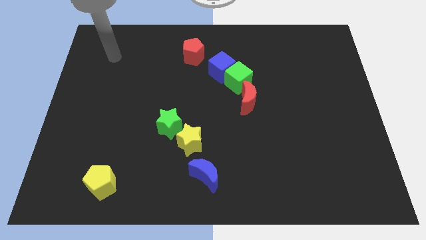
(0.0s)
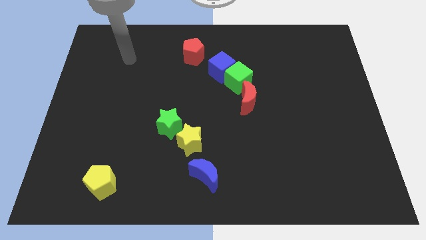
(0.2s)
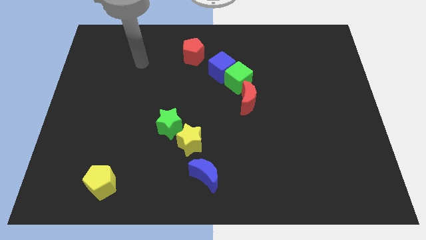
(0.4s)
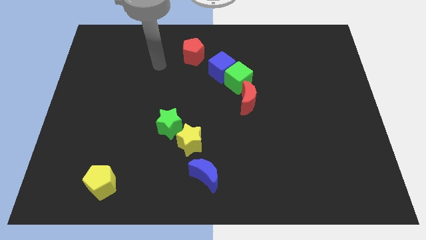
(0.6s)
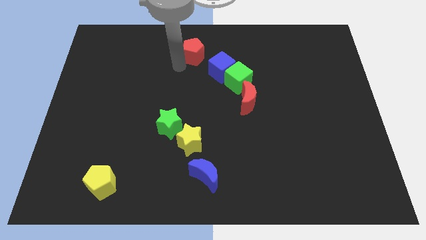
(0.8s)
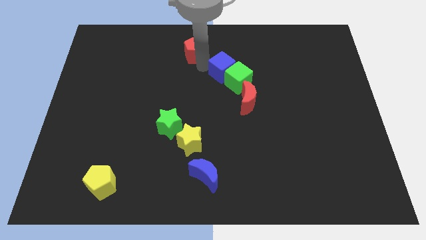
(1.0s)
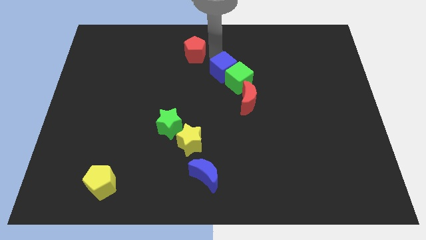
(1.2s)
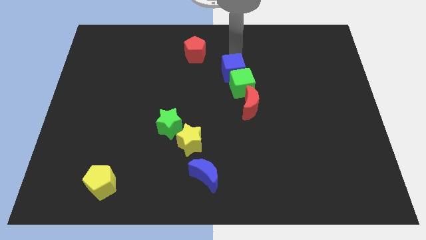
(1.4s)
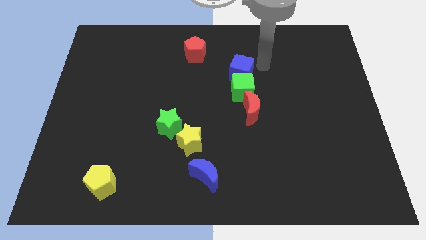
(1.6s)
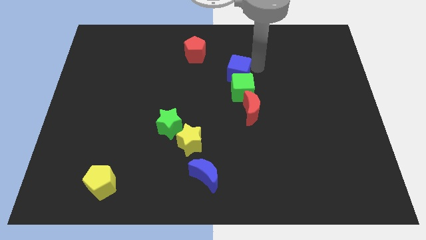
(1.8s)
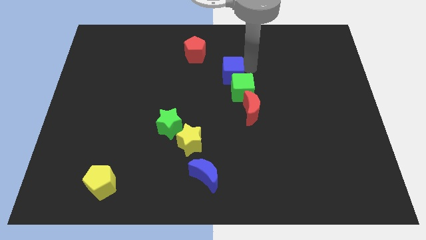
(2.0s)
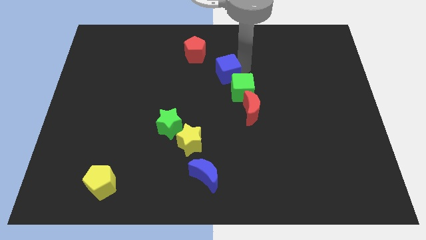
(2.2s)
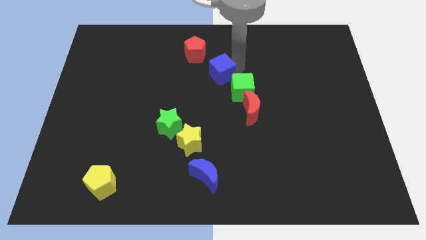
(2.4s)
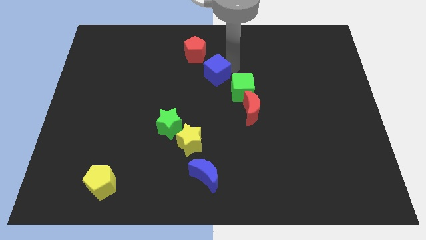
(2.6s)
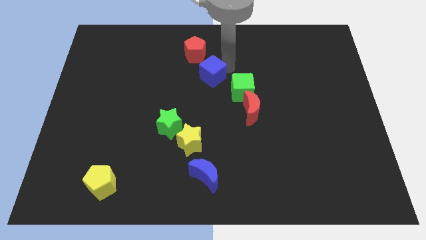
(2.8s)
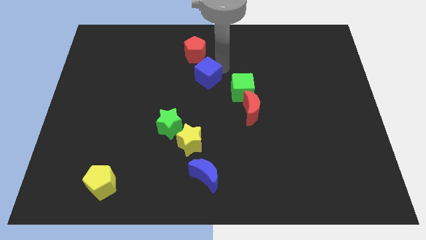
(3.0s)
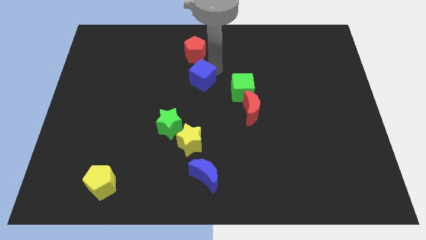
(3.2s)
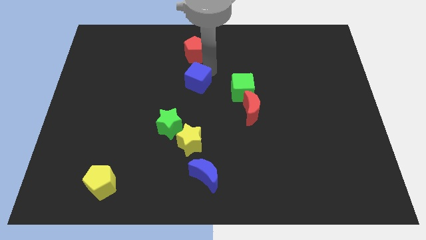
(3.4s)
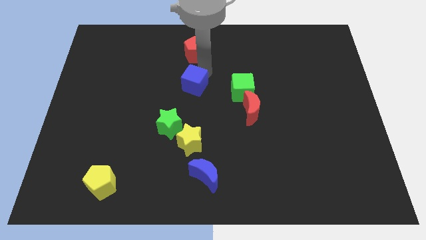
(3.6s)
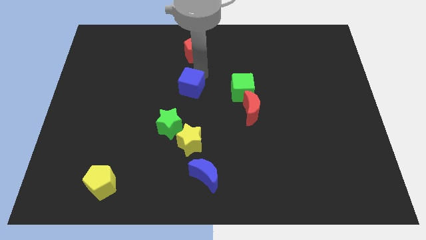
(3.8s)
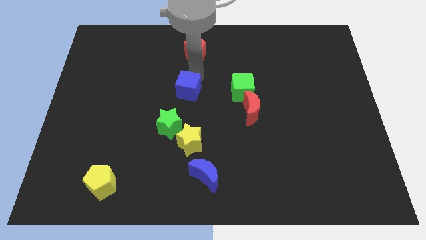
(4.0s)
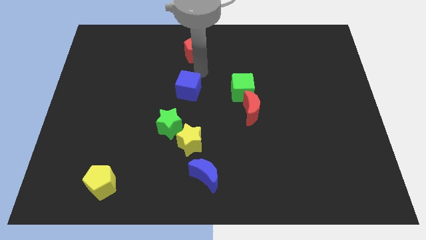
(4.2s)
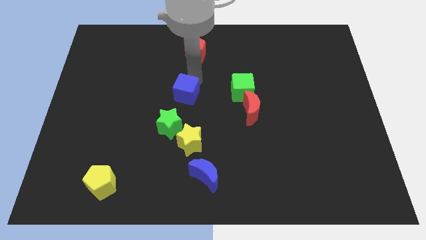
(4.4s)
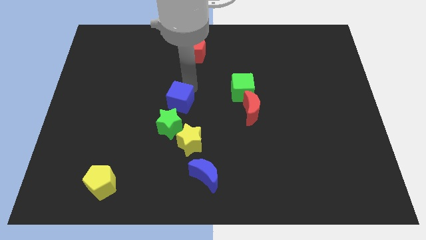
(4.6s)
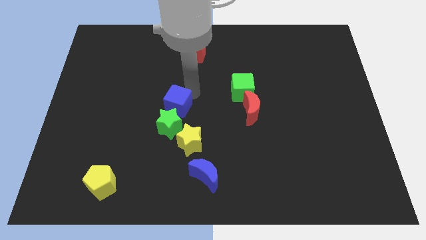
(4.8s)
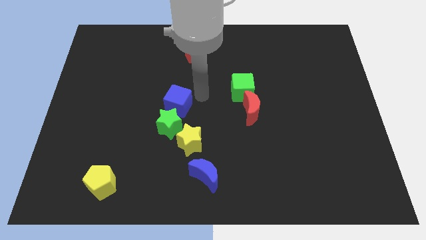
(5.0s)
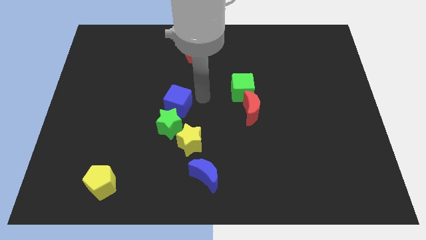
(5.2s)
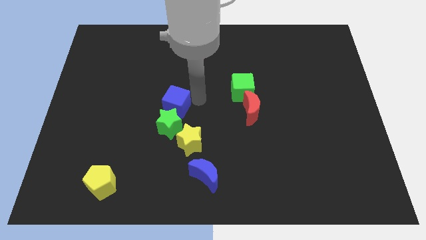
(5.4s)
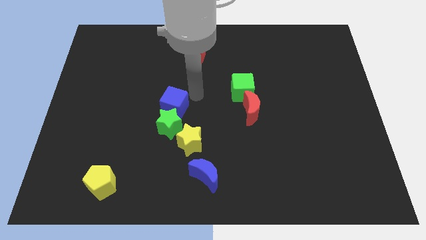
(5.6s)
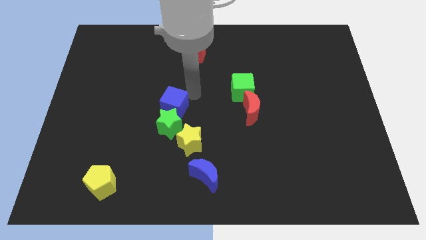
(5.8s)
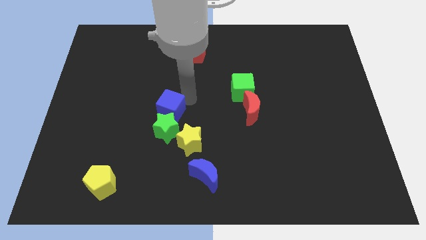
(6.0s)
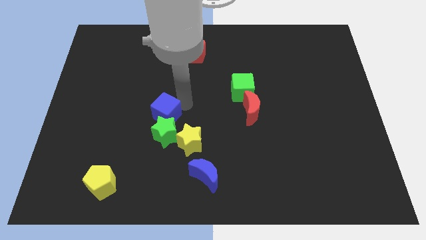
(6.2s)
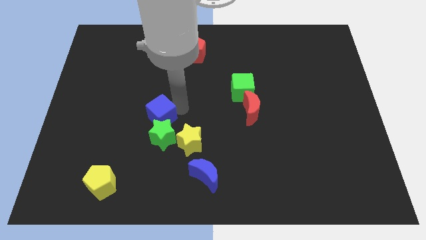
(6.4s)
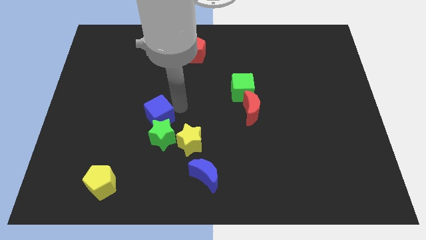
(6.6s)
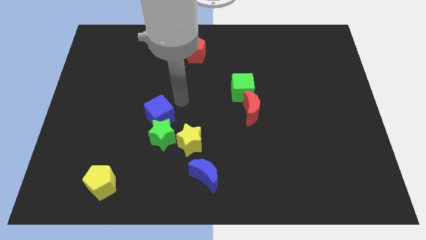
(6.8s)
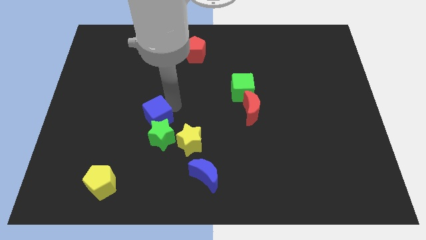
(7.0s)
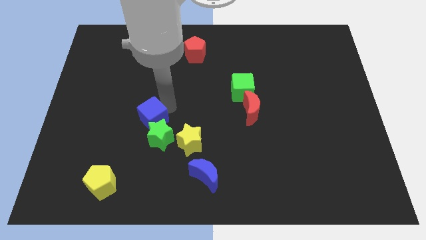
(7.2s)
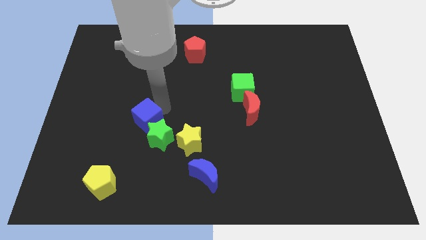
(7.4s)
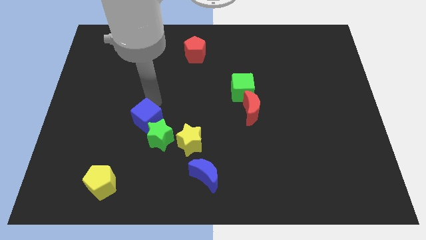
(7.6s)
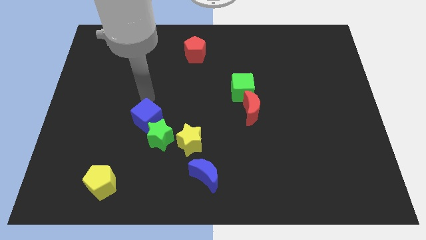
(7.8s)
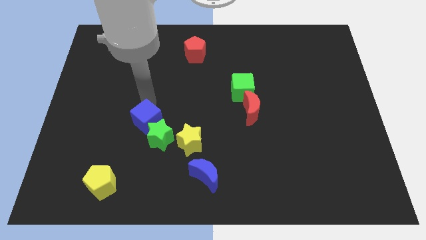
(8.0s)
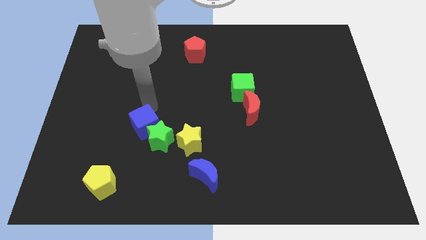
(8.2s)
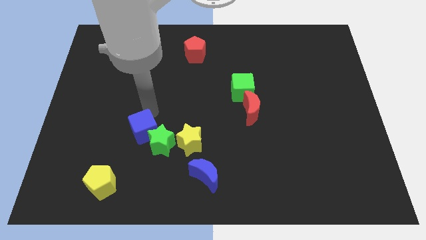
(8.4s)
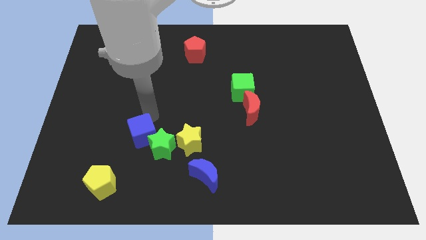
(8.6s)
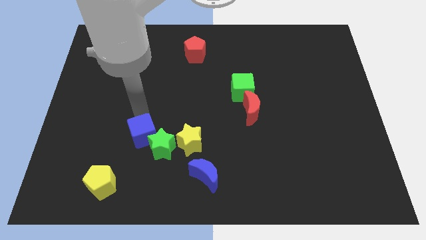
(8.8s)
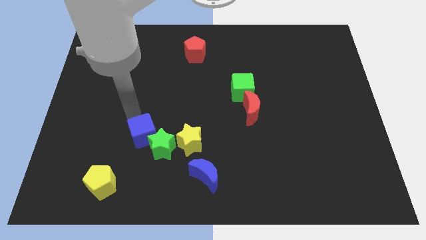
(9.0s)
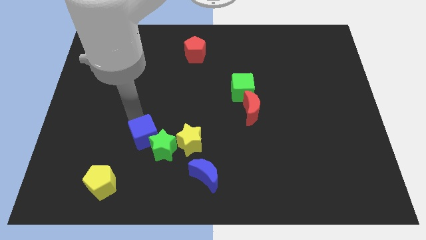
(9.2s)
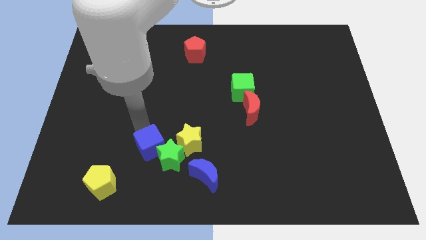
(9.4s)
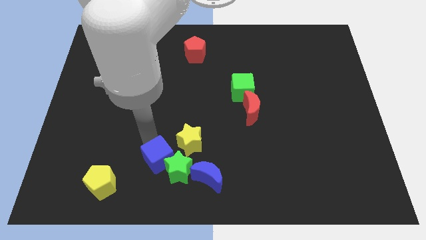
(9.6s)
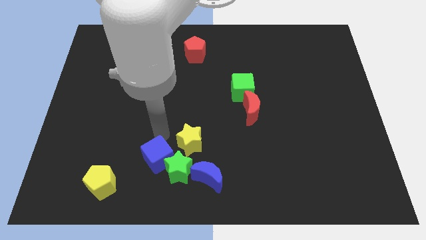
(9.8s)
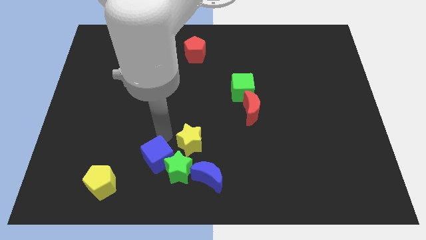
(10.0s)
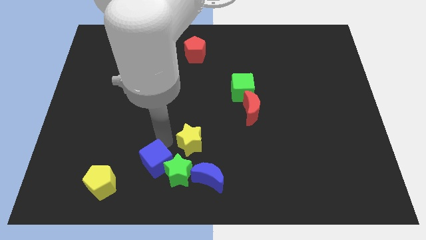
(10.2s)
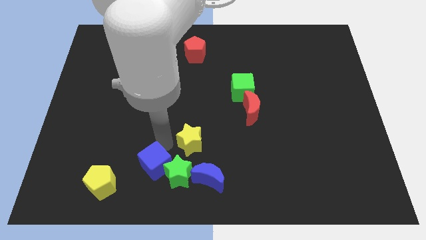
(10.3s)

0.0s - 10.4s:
move the blue cube just right of the yellow pentagon

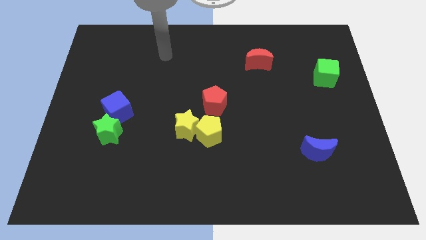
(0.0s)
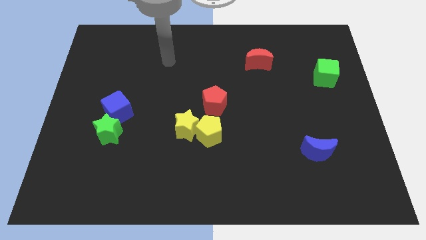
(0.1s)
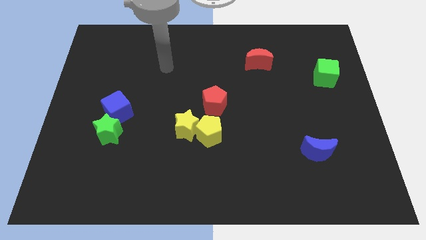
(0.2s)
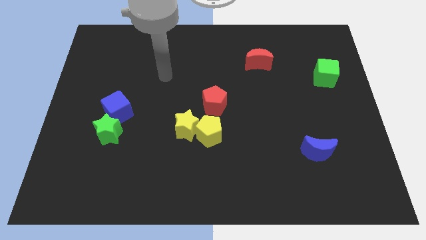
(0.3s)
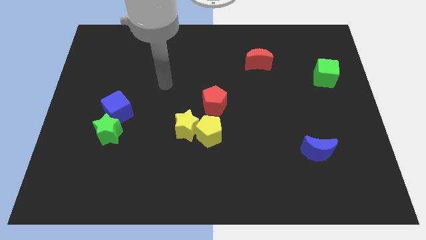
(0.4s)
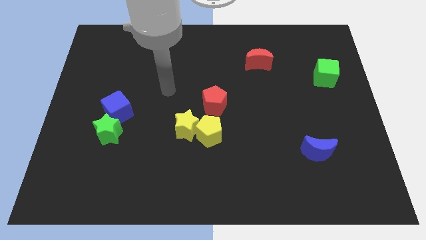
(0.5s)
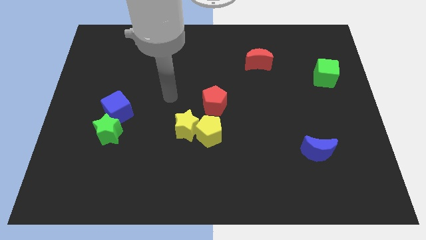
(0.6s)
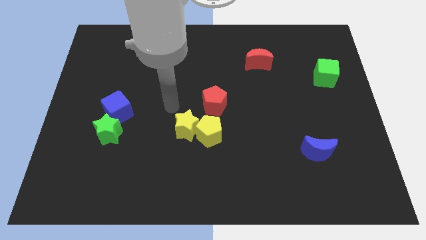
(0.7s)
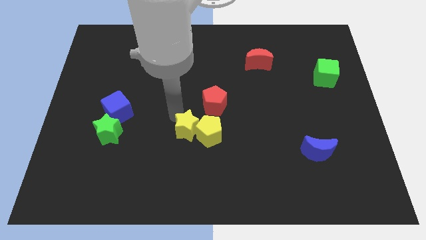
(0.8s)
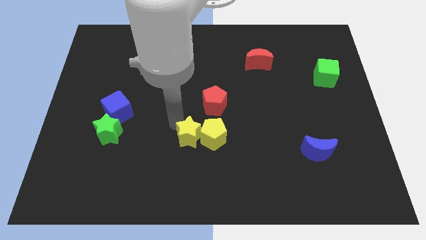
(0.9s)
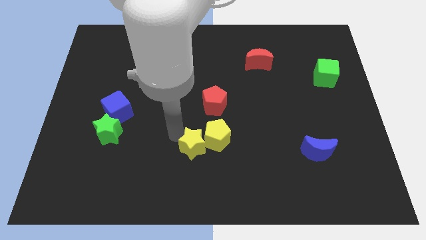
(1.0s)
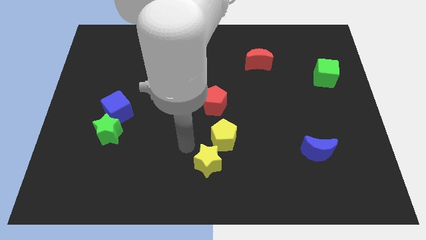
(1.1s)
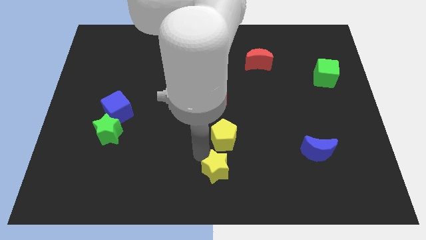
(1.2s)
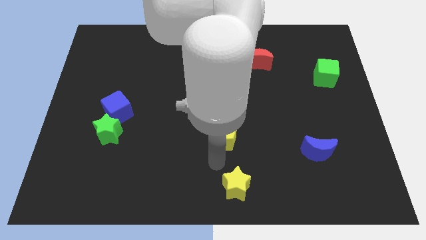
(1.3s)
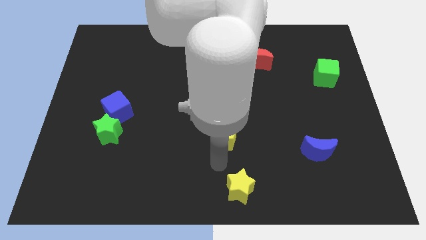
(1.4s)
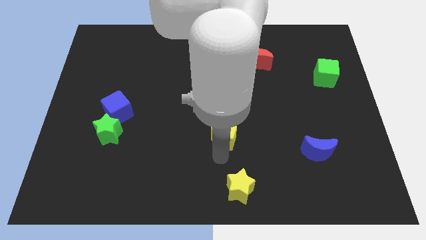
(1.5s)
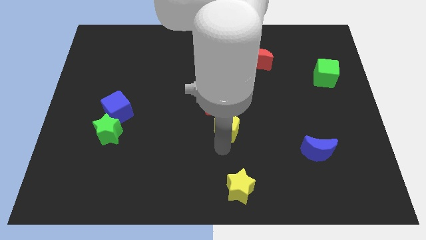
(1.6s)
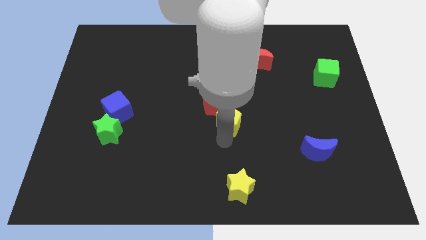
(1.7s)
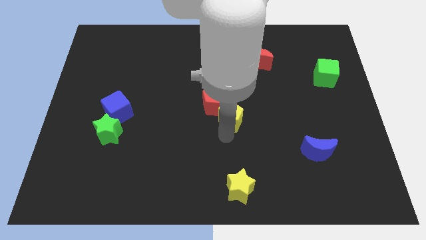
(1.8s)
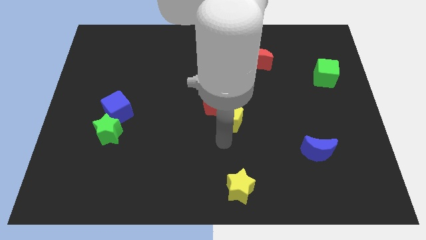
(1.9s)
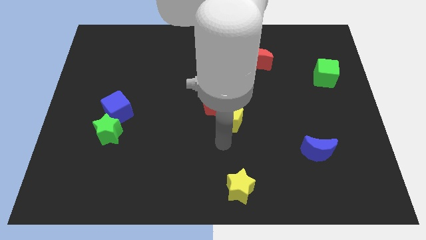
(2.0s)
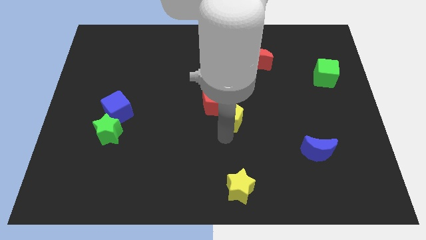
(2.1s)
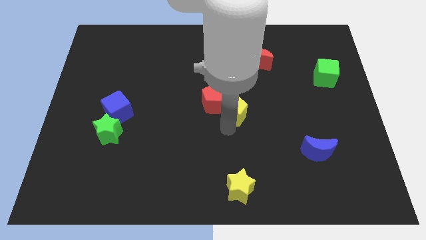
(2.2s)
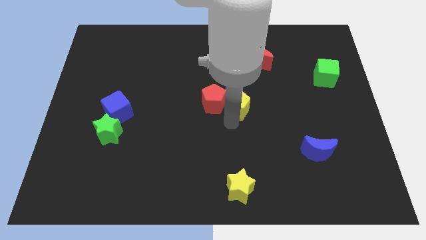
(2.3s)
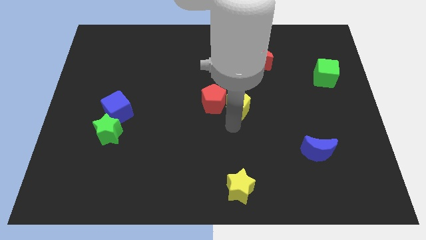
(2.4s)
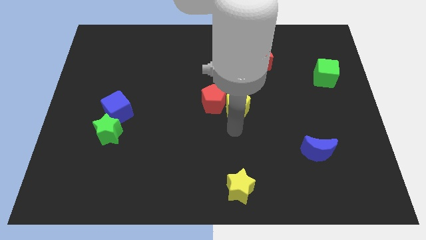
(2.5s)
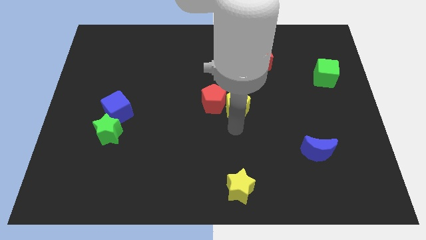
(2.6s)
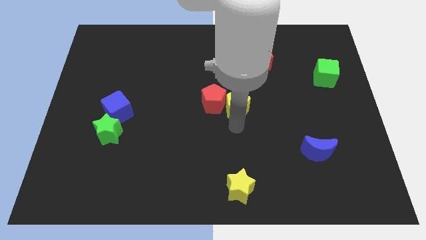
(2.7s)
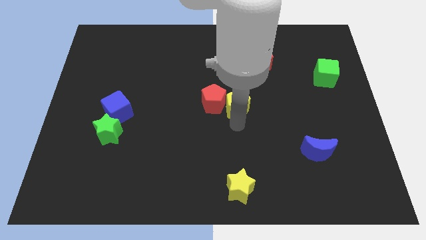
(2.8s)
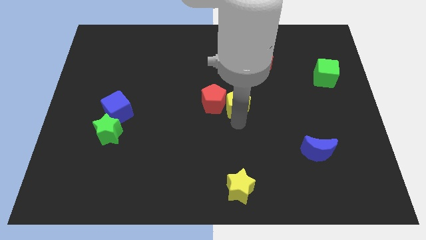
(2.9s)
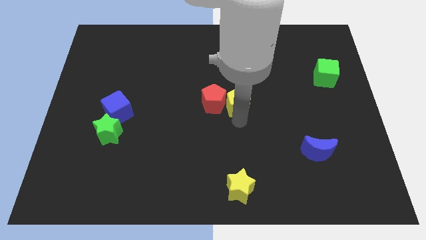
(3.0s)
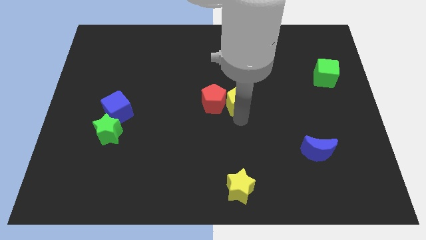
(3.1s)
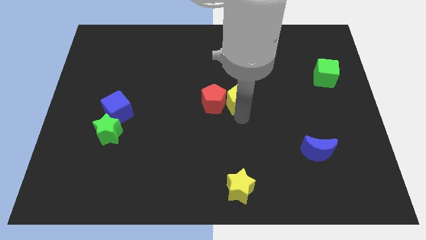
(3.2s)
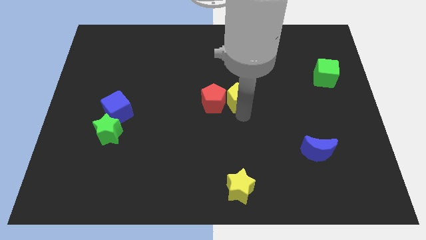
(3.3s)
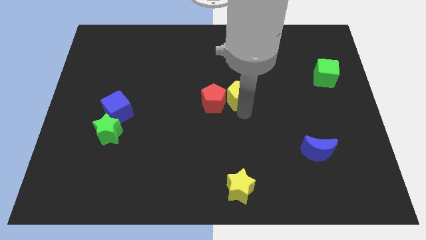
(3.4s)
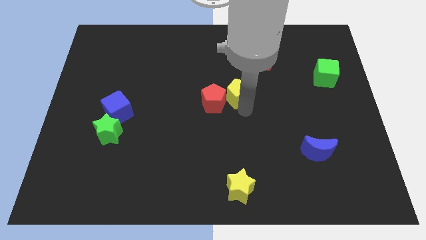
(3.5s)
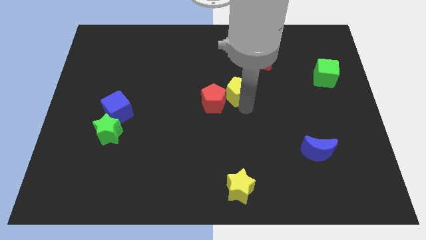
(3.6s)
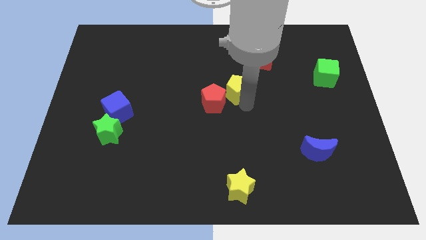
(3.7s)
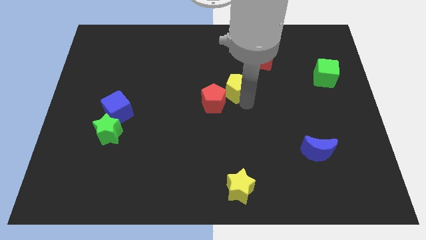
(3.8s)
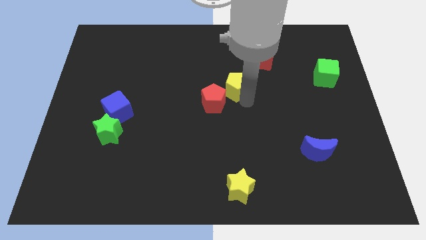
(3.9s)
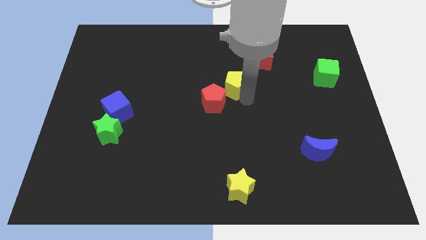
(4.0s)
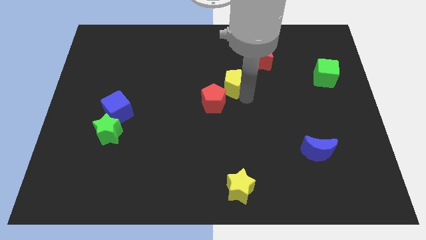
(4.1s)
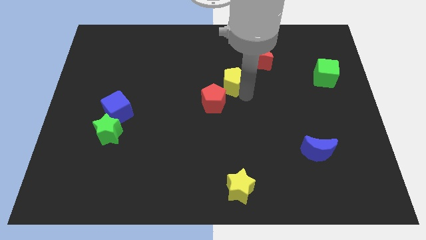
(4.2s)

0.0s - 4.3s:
put the yellow pentagon to the top of the red pentagon
